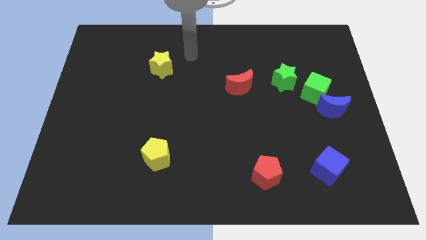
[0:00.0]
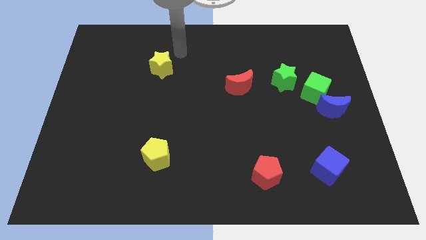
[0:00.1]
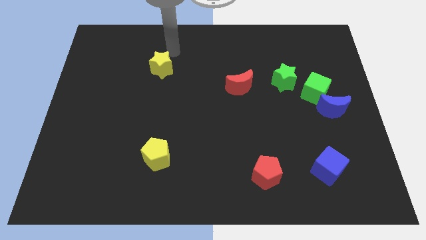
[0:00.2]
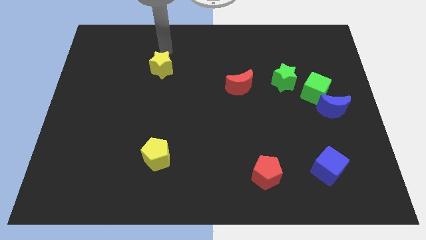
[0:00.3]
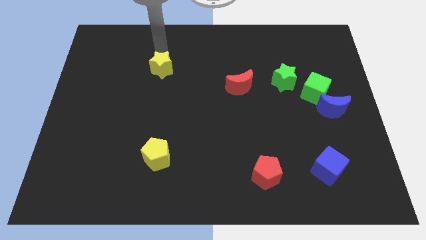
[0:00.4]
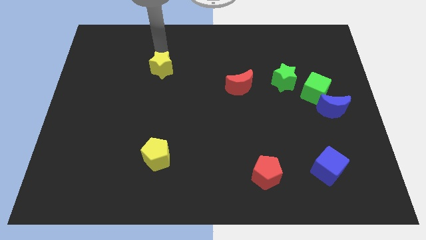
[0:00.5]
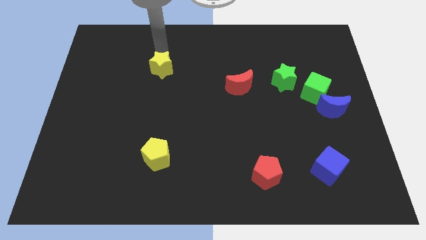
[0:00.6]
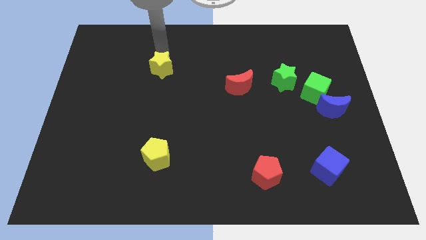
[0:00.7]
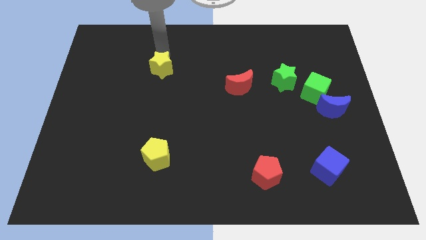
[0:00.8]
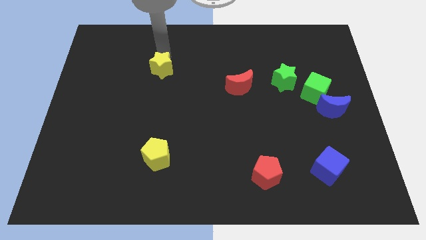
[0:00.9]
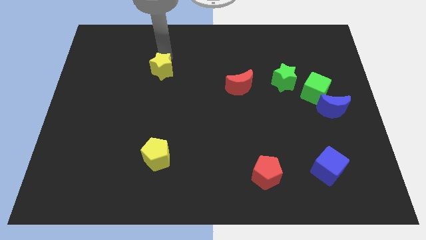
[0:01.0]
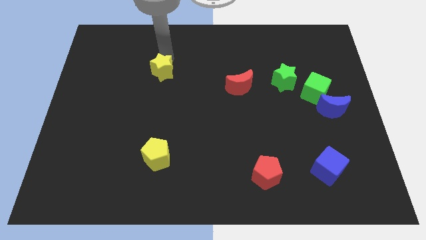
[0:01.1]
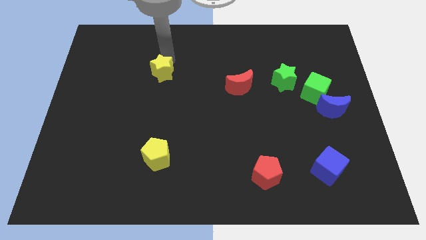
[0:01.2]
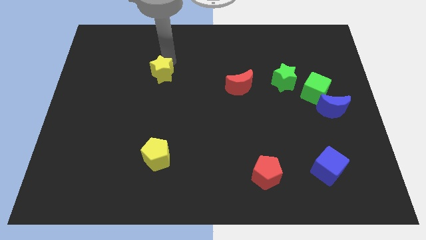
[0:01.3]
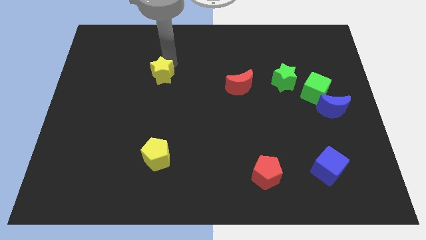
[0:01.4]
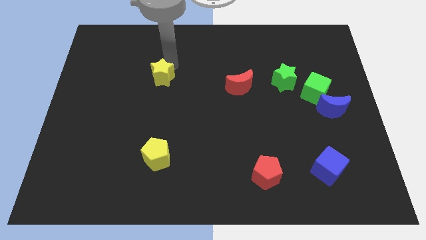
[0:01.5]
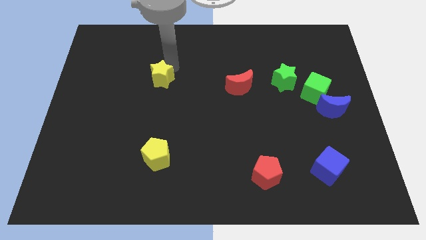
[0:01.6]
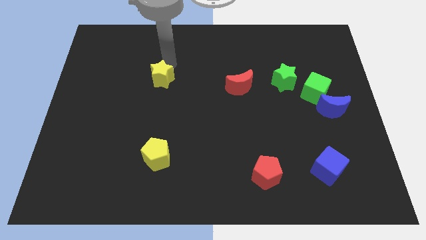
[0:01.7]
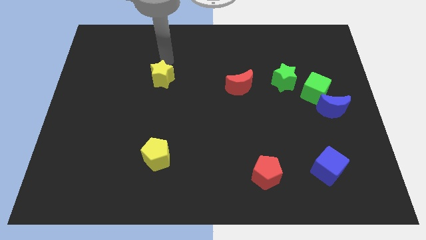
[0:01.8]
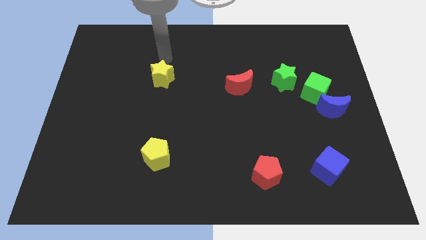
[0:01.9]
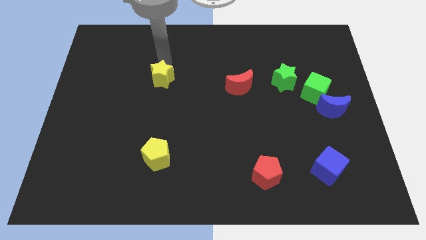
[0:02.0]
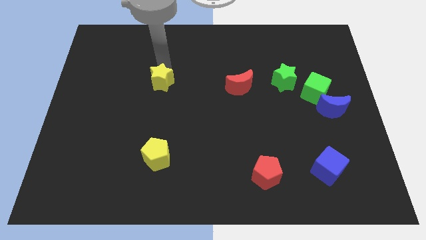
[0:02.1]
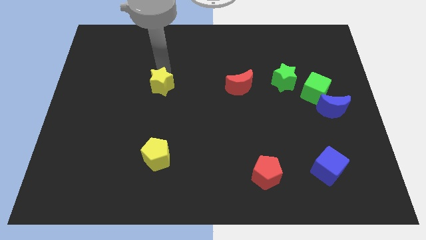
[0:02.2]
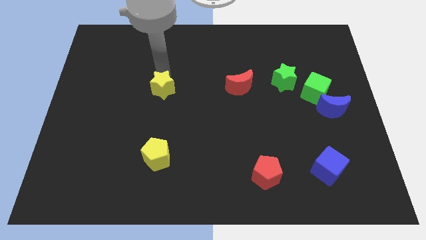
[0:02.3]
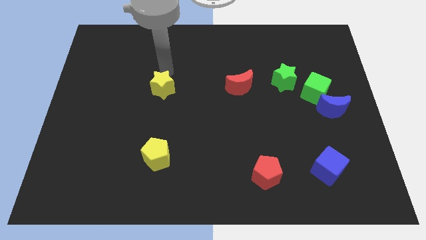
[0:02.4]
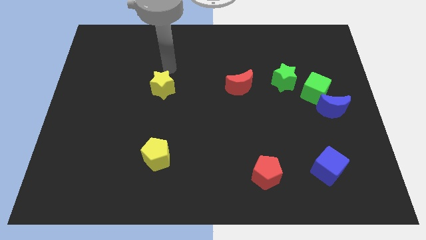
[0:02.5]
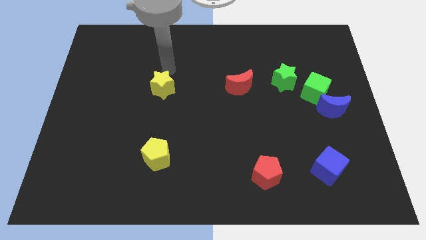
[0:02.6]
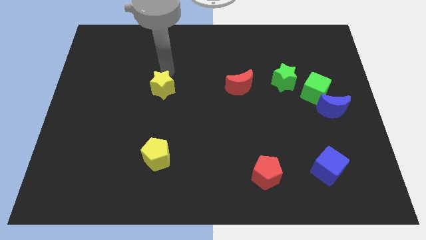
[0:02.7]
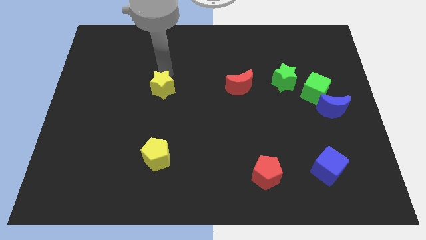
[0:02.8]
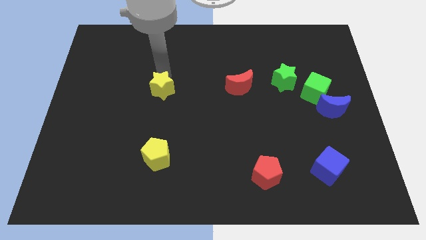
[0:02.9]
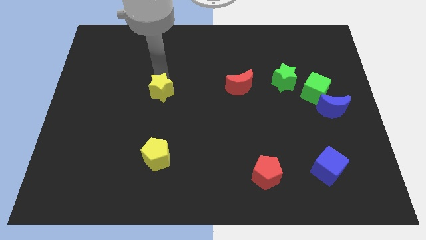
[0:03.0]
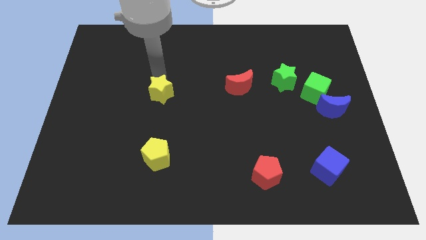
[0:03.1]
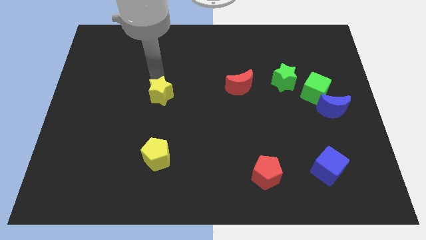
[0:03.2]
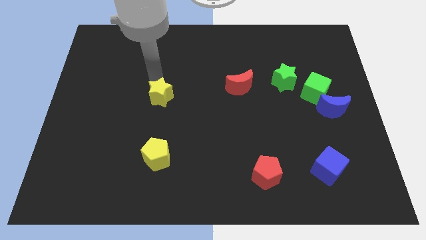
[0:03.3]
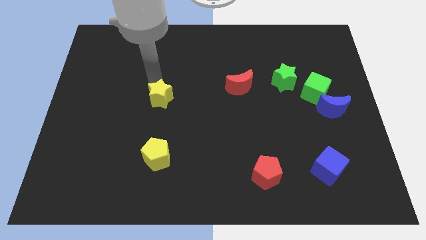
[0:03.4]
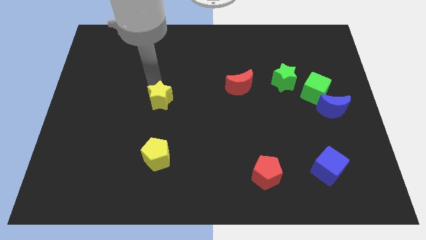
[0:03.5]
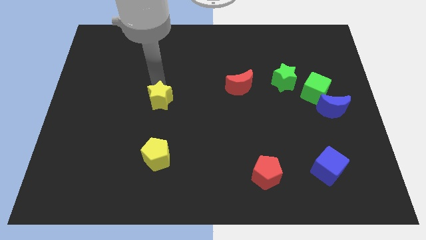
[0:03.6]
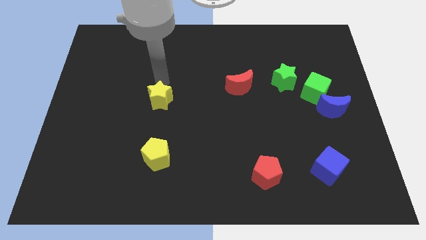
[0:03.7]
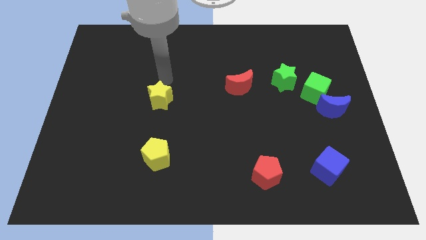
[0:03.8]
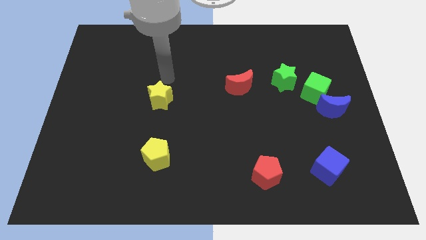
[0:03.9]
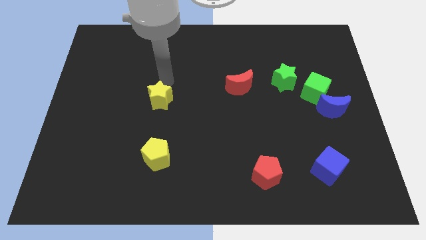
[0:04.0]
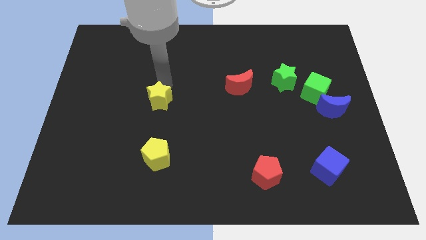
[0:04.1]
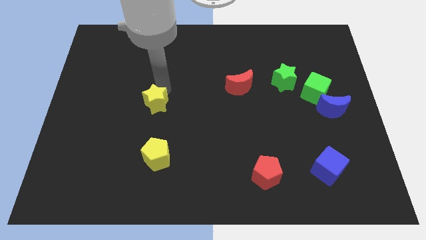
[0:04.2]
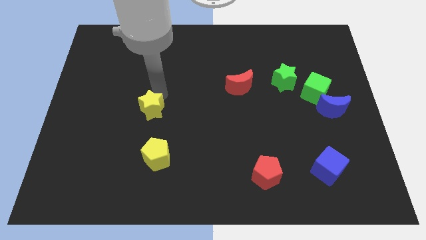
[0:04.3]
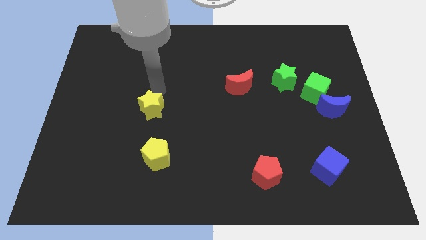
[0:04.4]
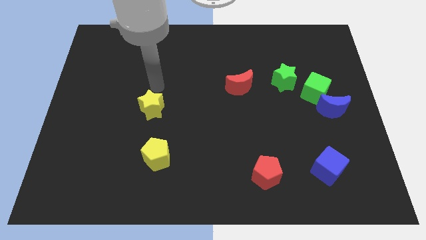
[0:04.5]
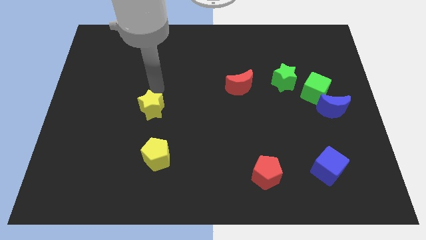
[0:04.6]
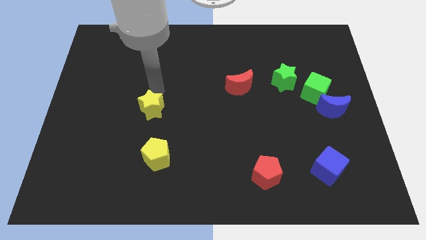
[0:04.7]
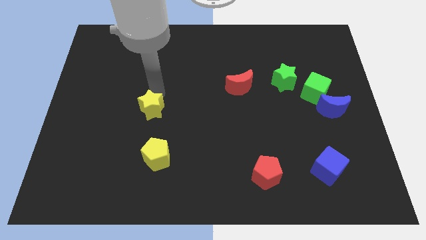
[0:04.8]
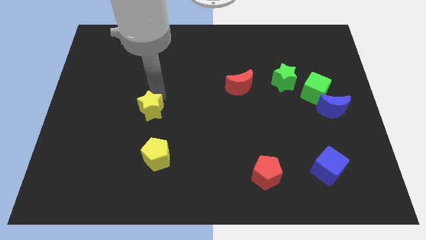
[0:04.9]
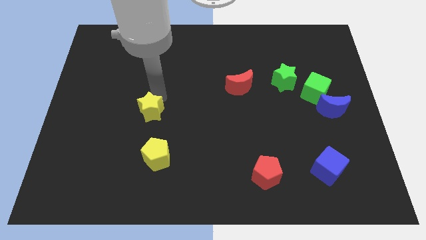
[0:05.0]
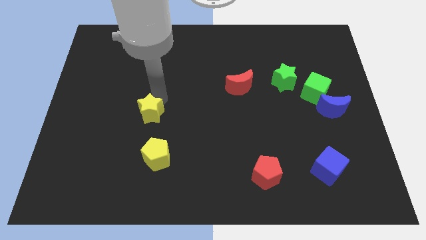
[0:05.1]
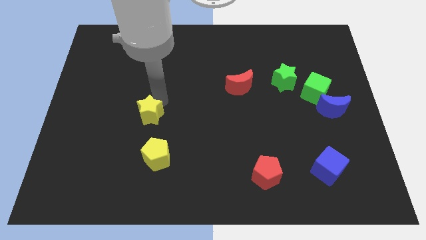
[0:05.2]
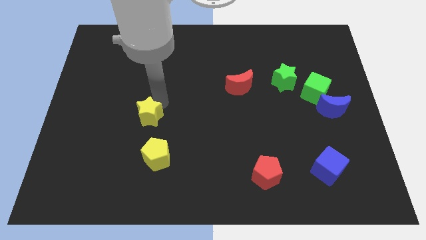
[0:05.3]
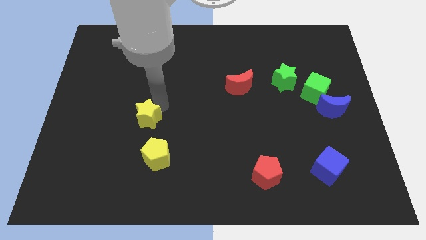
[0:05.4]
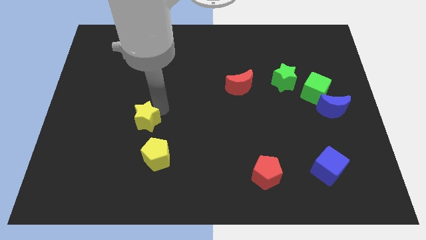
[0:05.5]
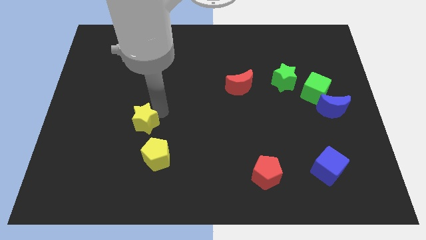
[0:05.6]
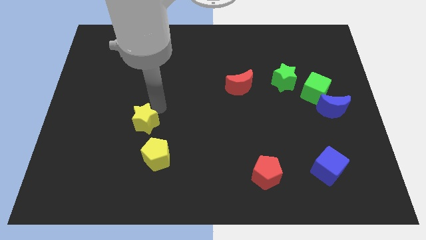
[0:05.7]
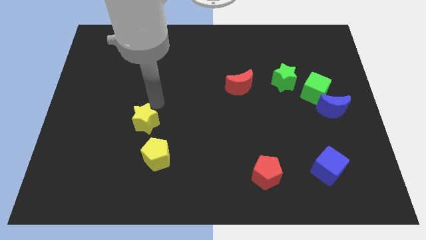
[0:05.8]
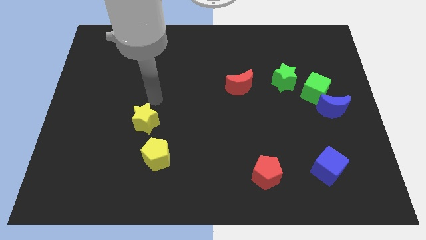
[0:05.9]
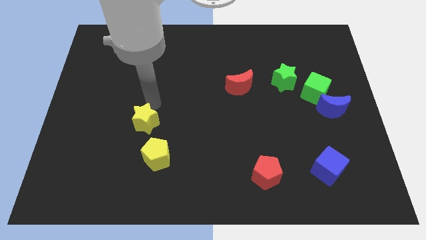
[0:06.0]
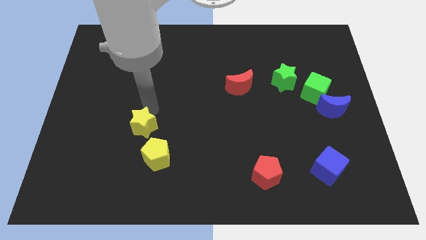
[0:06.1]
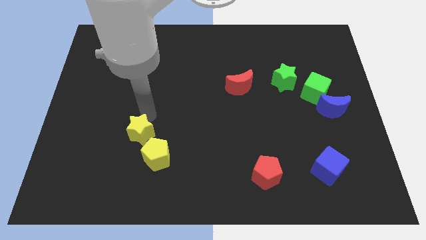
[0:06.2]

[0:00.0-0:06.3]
move the yellow star down

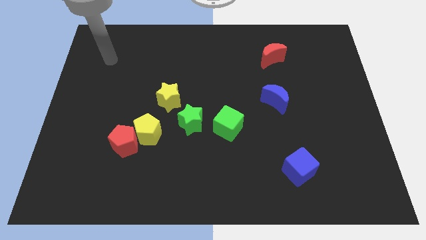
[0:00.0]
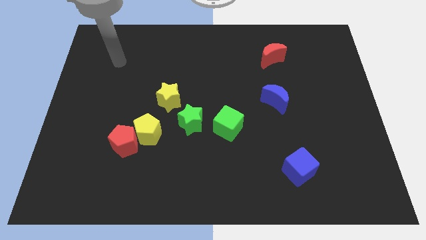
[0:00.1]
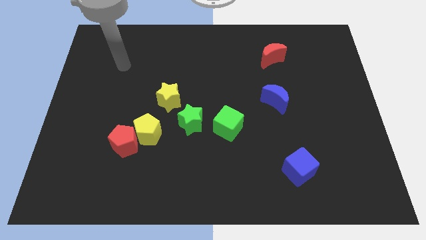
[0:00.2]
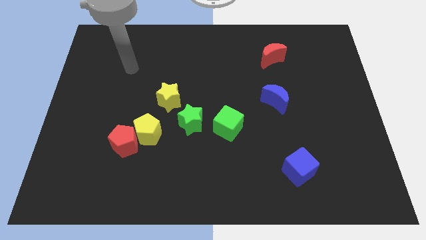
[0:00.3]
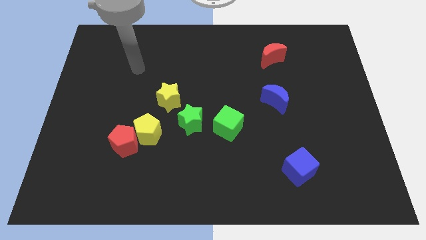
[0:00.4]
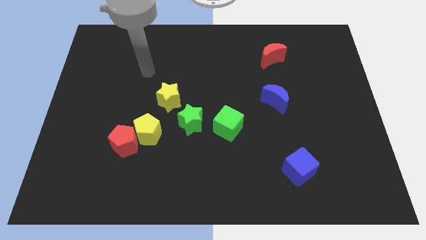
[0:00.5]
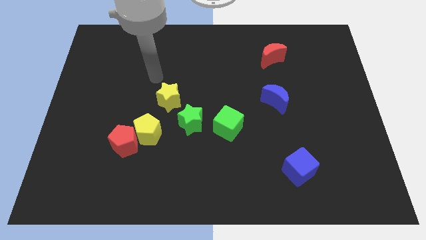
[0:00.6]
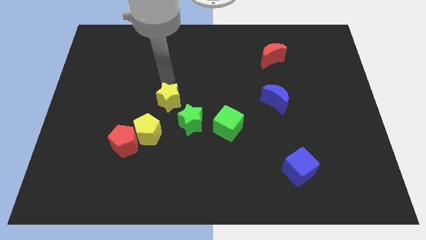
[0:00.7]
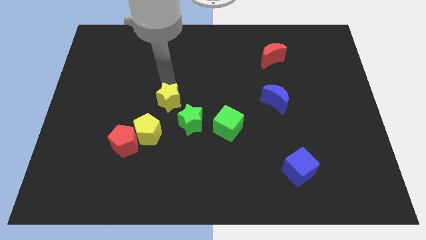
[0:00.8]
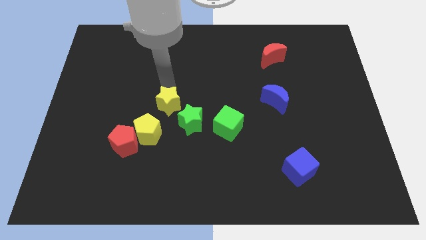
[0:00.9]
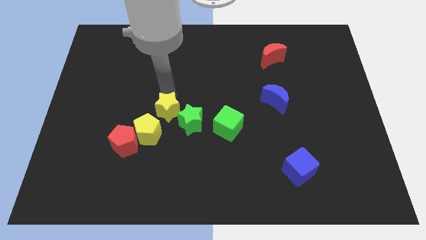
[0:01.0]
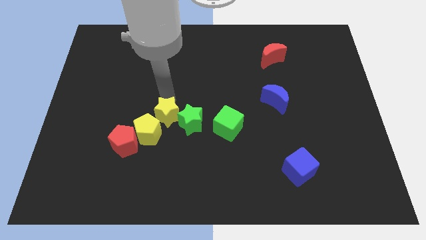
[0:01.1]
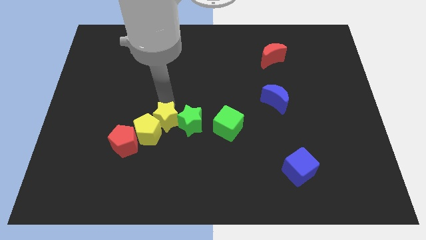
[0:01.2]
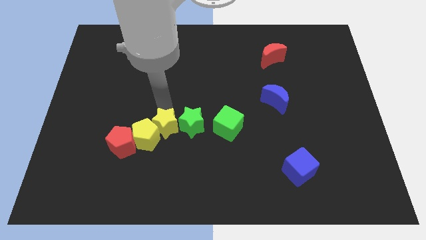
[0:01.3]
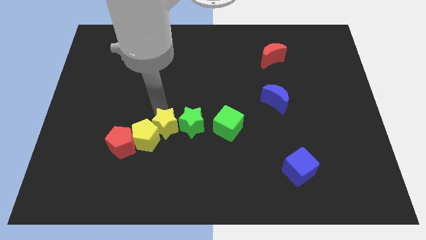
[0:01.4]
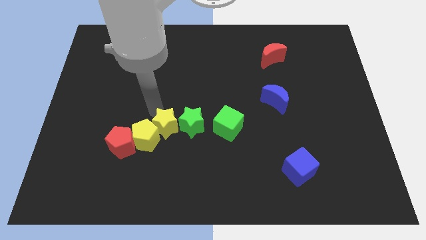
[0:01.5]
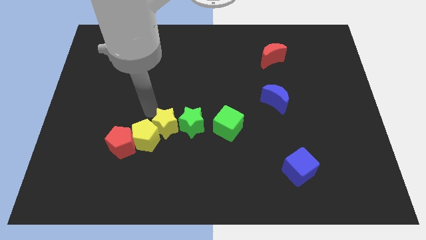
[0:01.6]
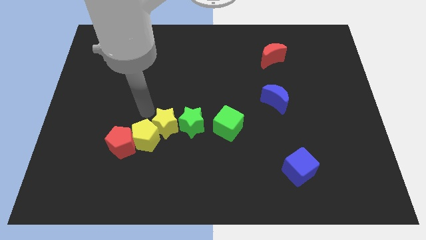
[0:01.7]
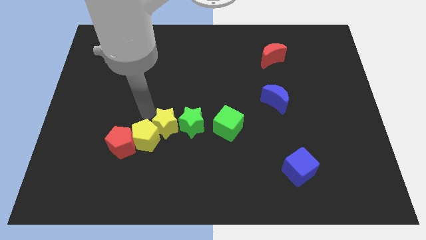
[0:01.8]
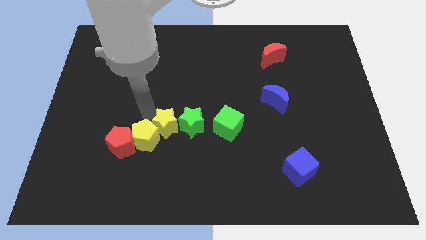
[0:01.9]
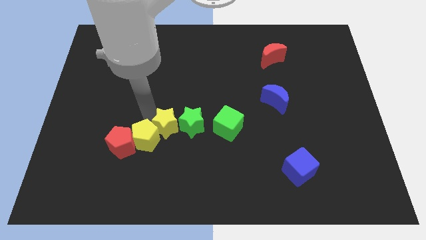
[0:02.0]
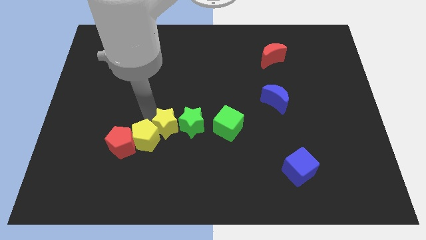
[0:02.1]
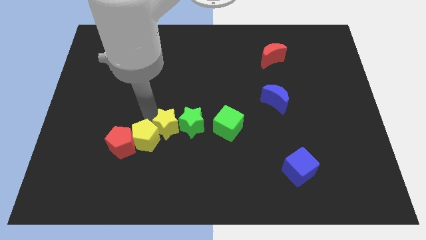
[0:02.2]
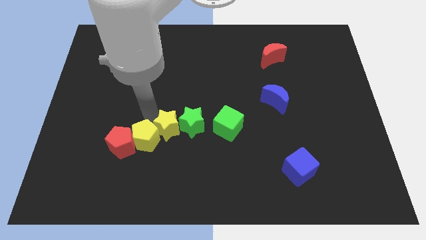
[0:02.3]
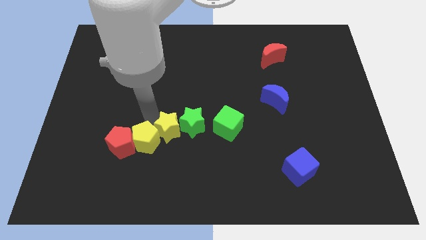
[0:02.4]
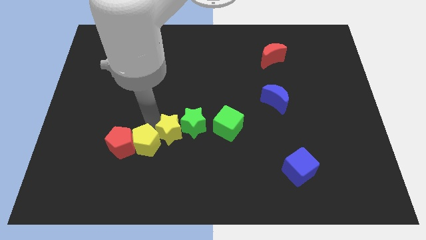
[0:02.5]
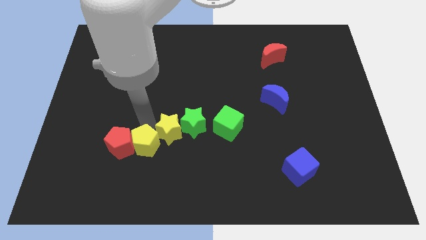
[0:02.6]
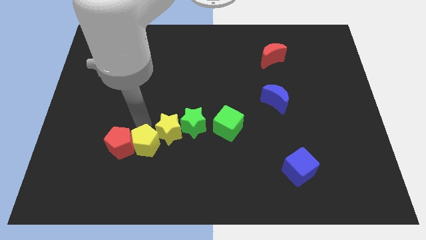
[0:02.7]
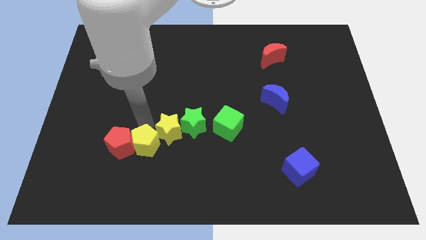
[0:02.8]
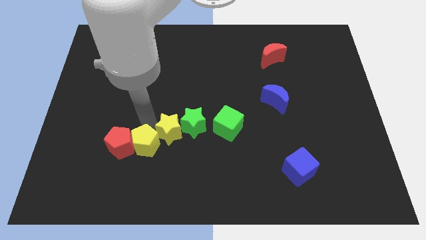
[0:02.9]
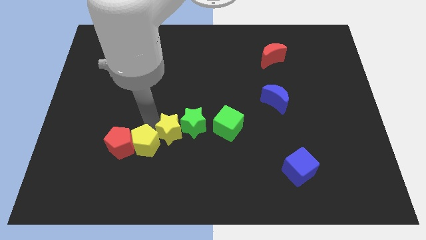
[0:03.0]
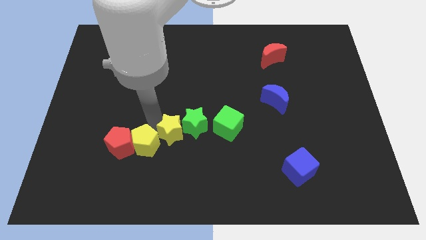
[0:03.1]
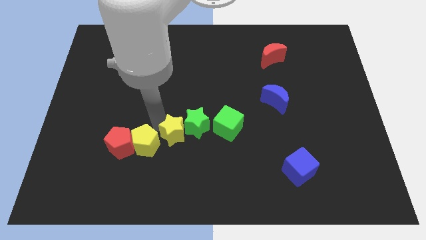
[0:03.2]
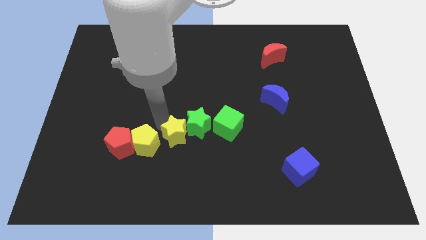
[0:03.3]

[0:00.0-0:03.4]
slide the yellow star down and to the right diagonally somewhat
